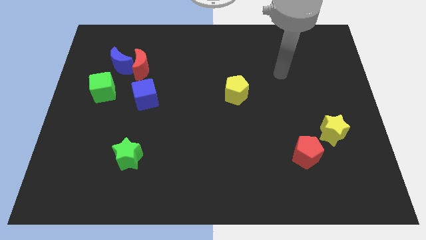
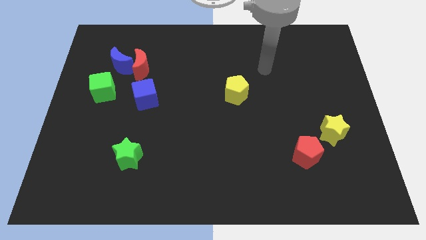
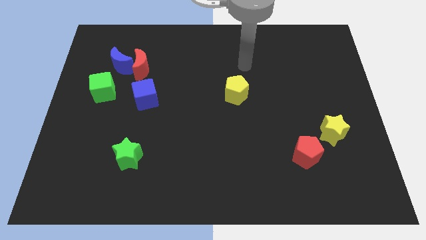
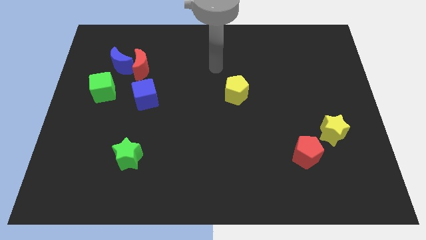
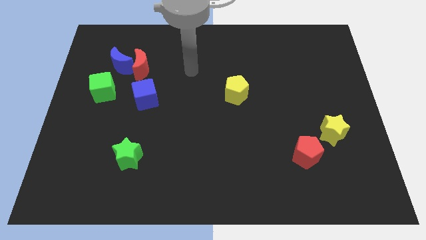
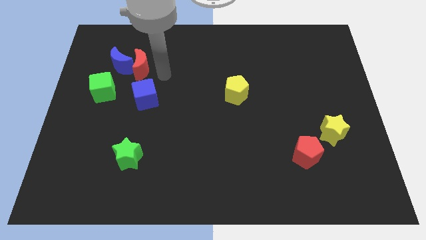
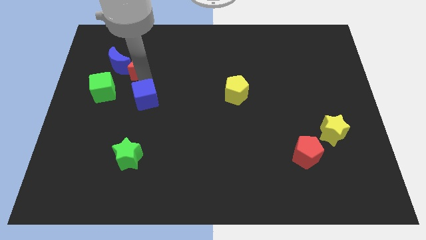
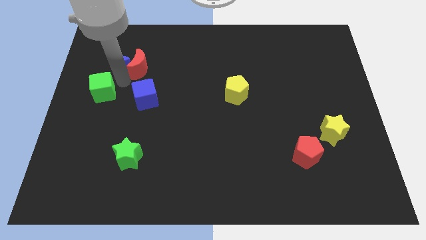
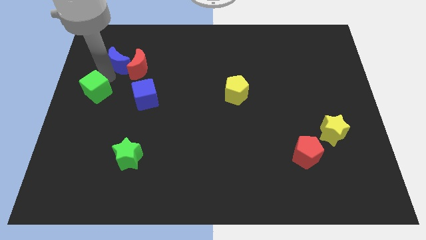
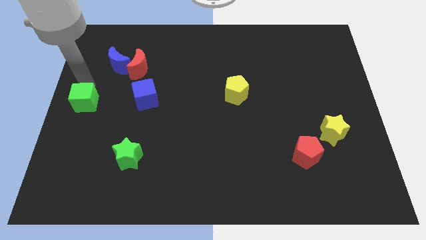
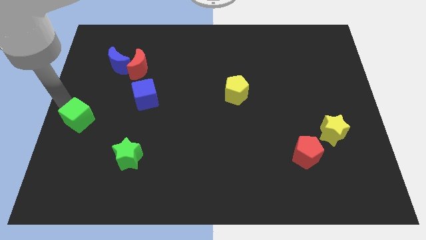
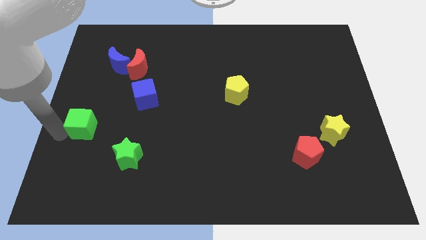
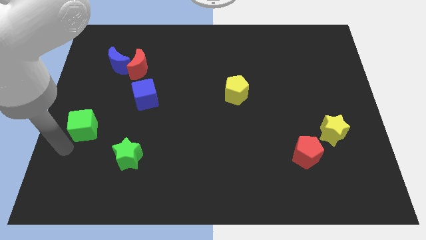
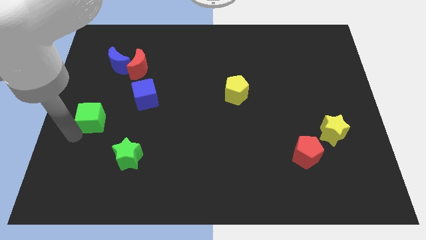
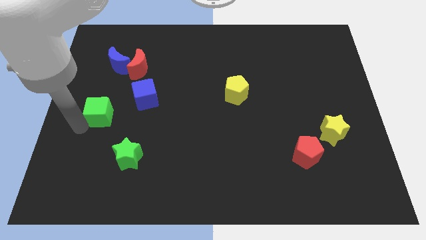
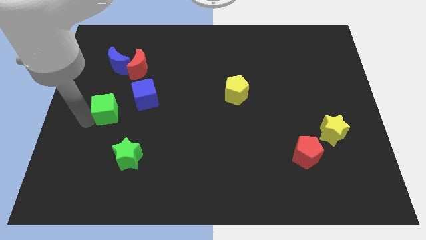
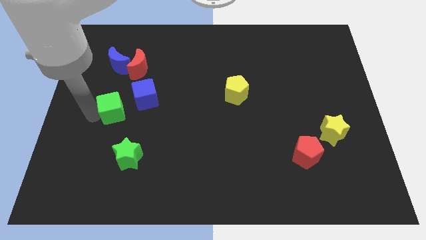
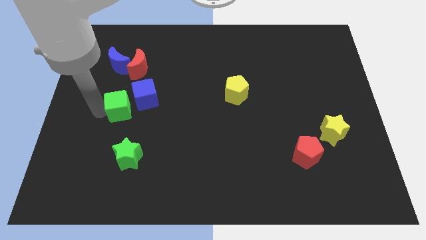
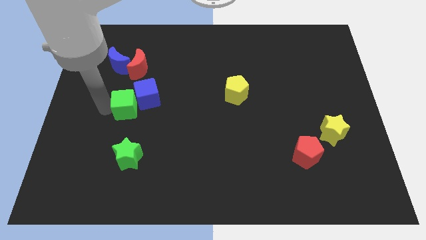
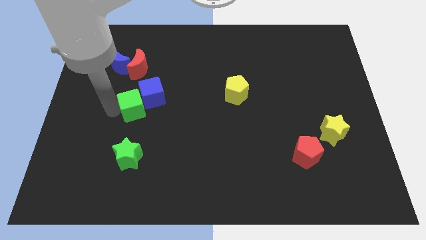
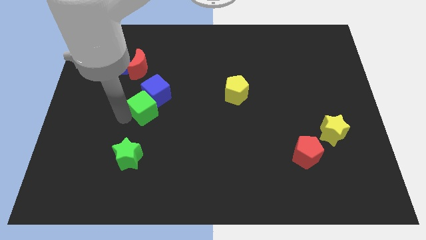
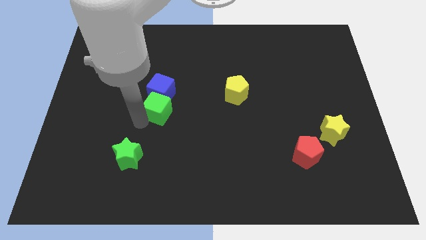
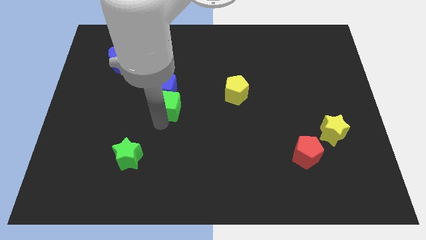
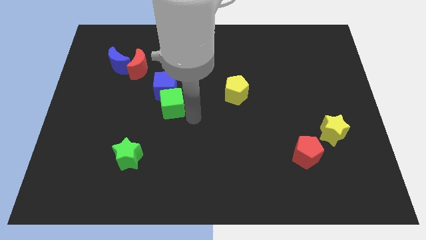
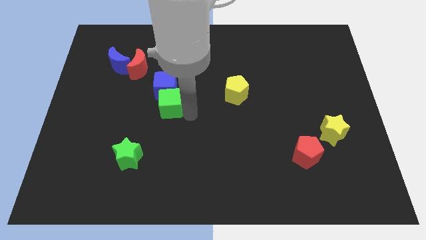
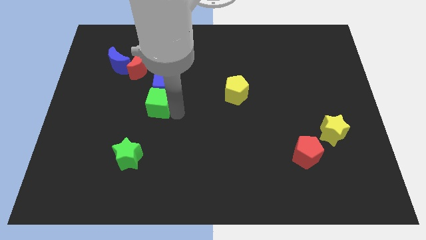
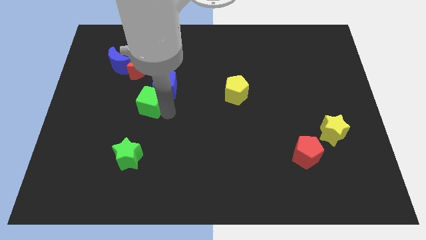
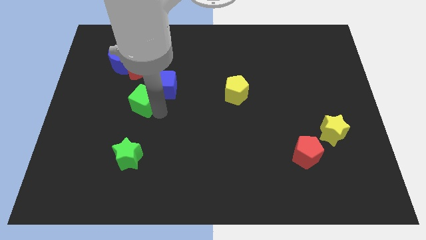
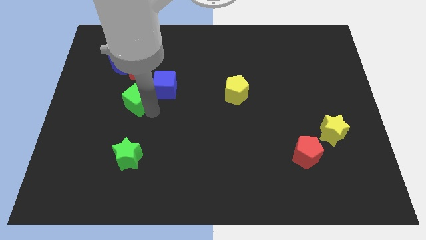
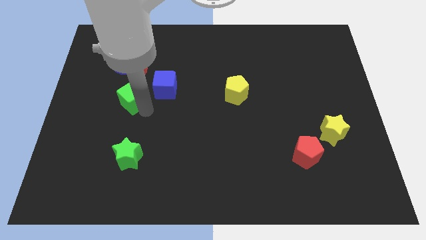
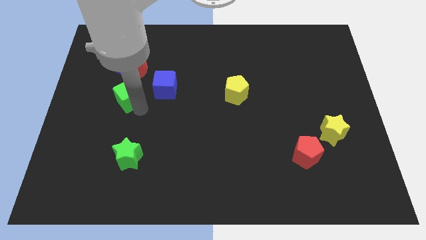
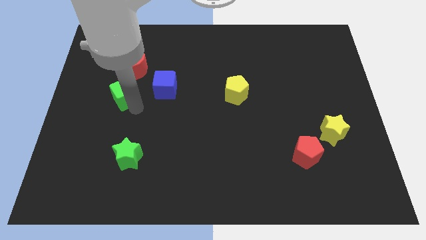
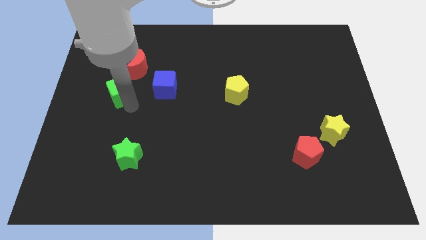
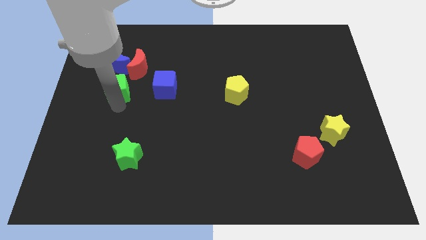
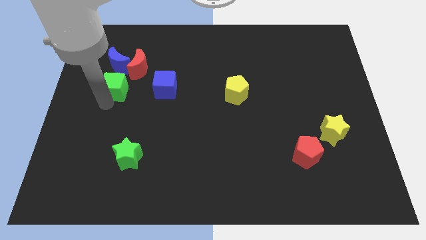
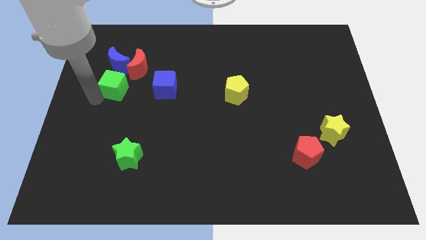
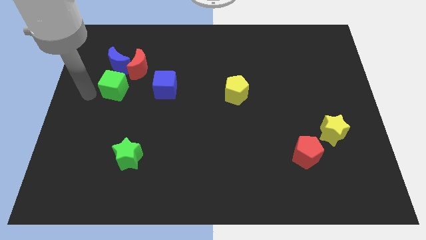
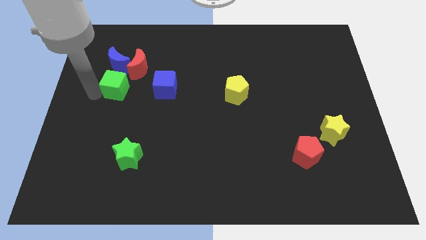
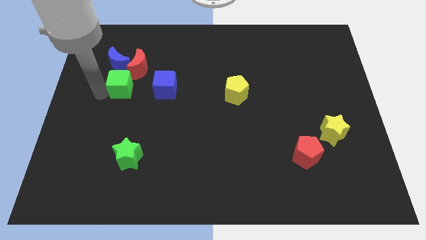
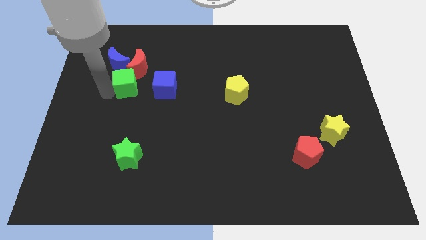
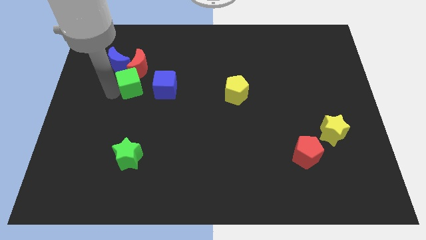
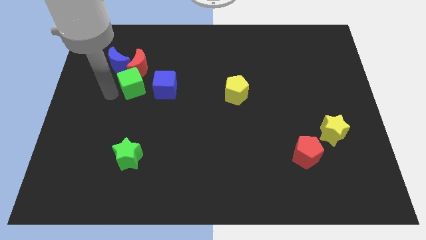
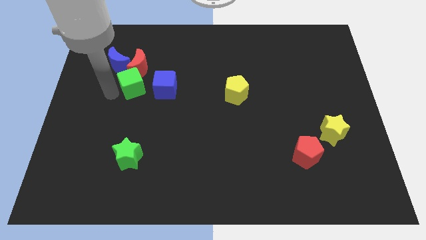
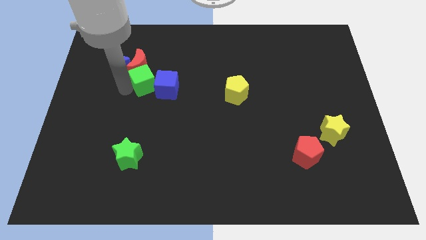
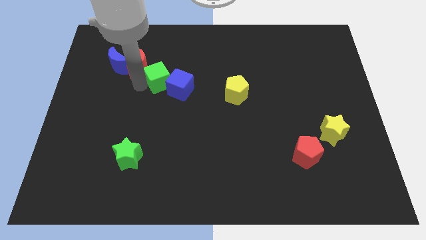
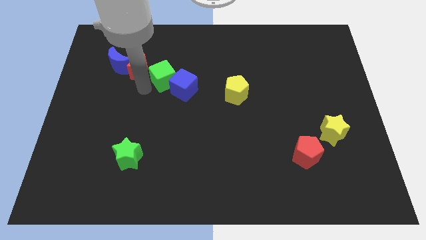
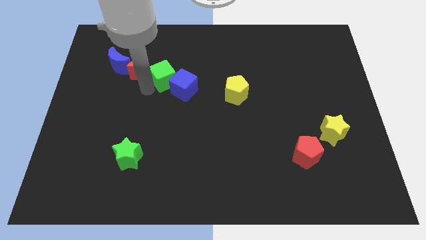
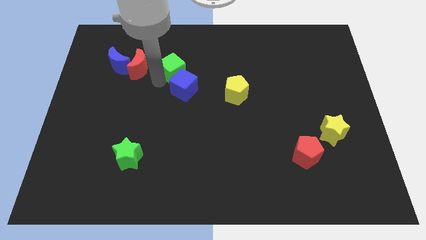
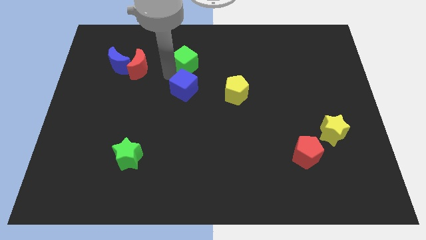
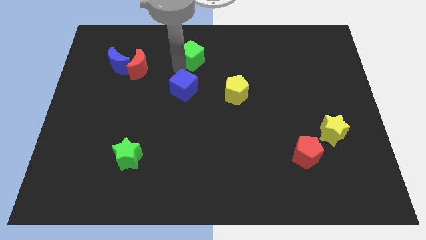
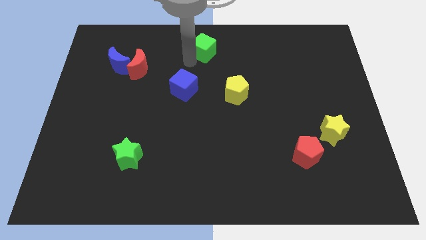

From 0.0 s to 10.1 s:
push the green cube to the top side

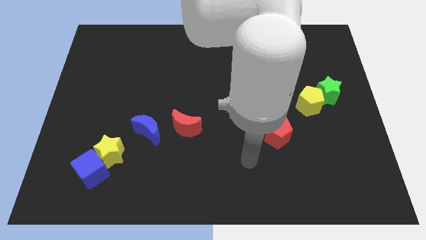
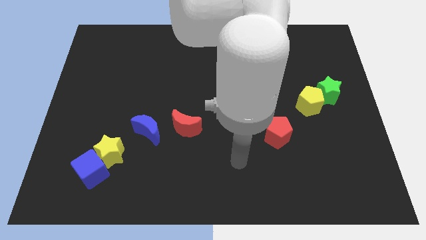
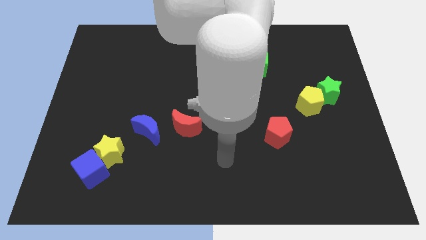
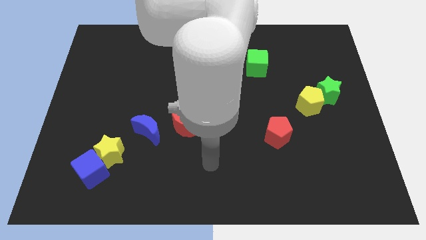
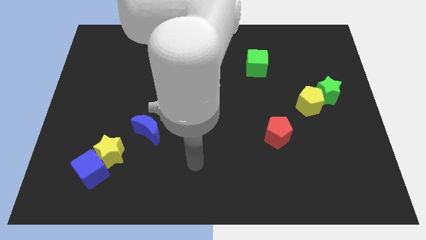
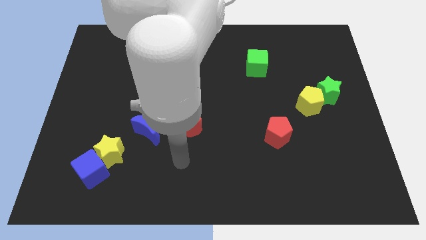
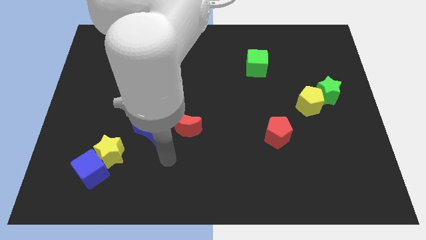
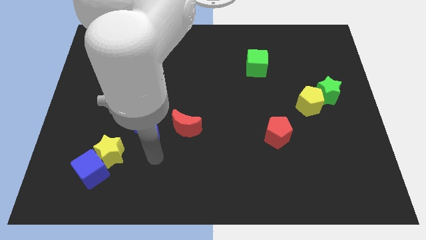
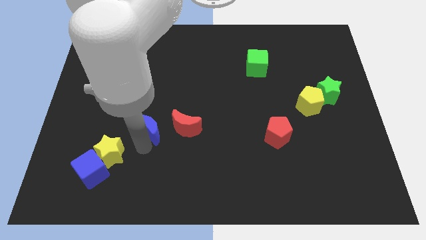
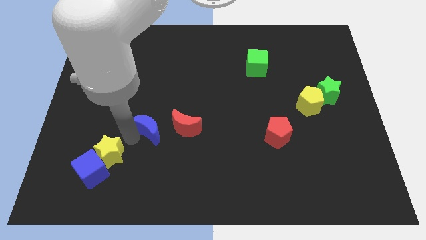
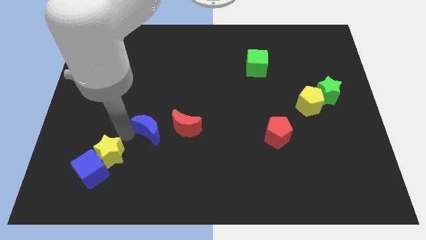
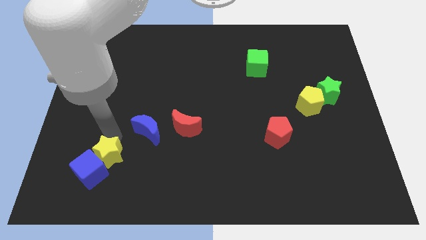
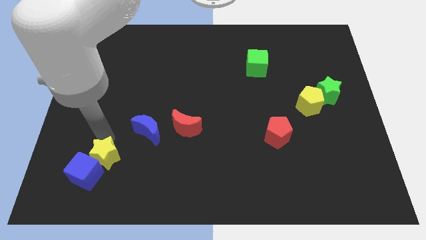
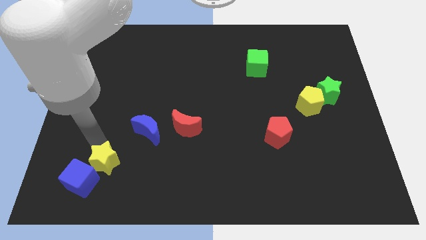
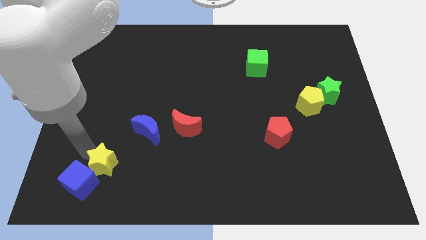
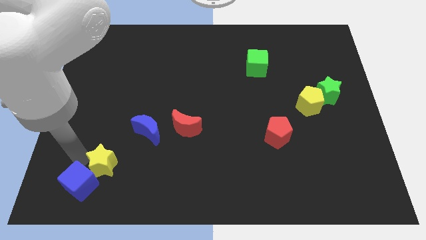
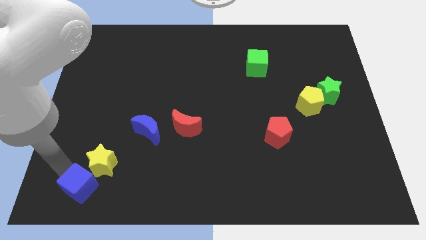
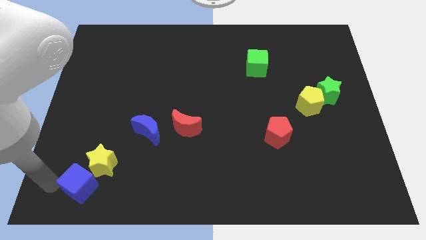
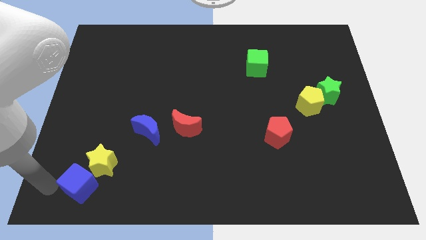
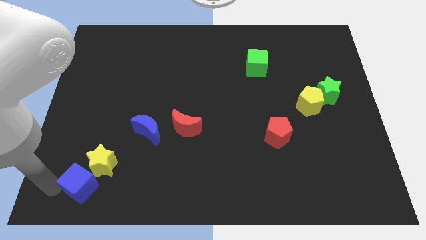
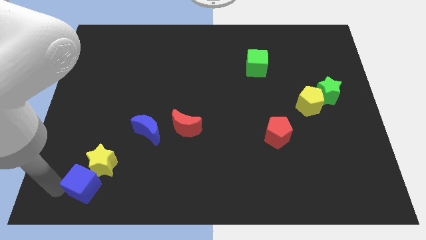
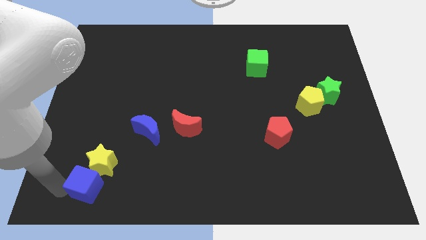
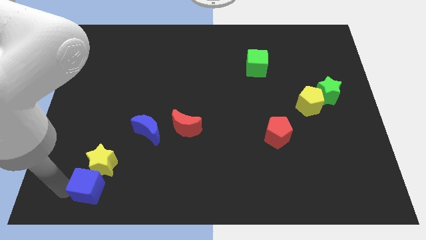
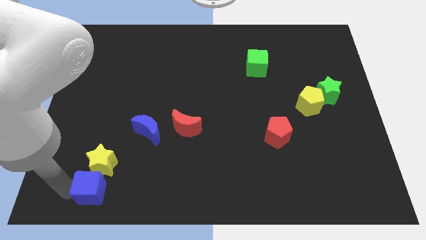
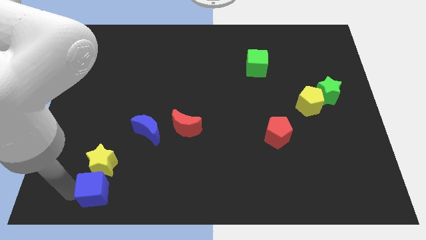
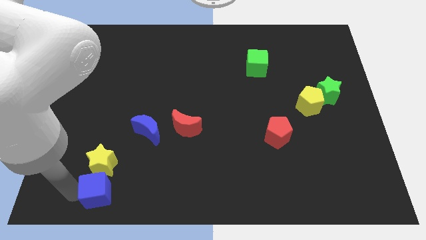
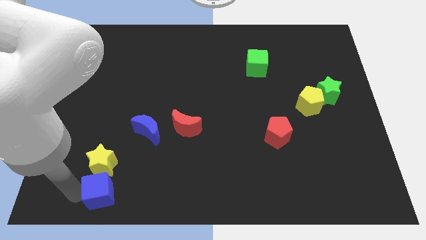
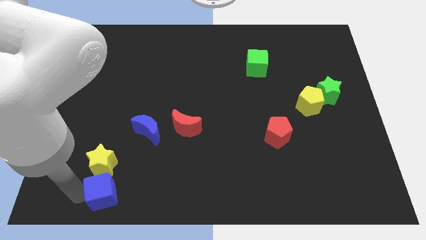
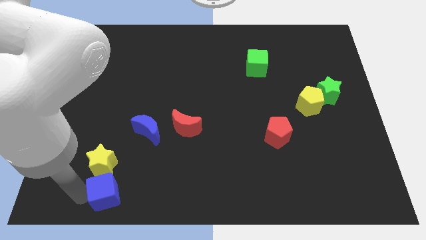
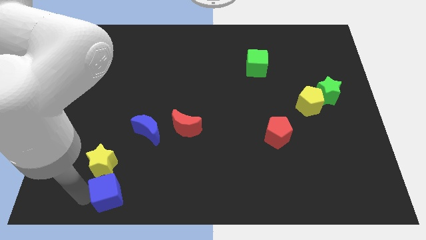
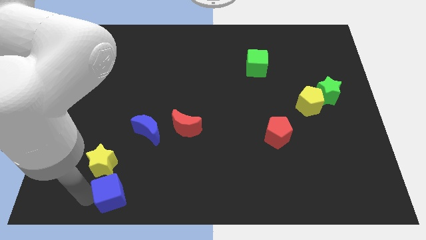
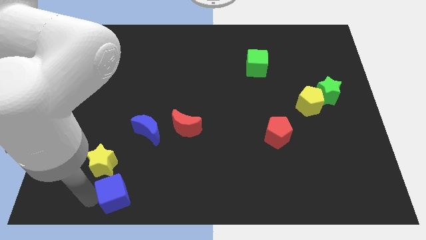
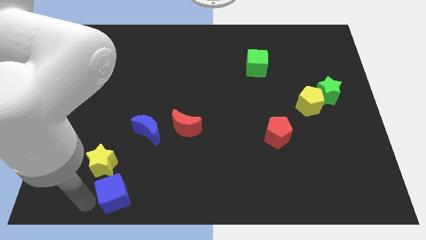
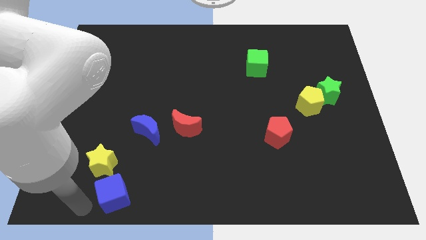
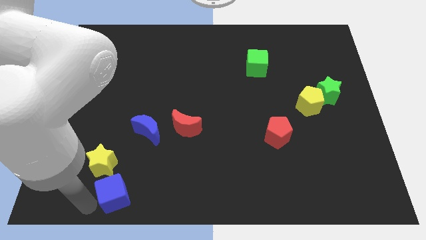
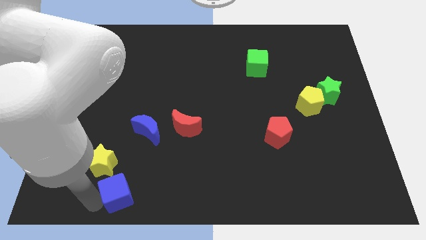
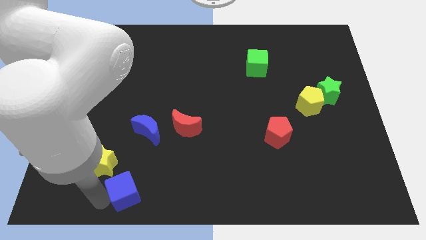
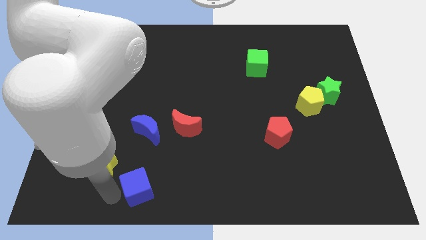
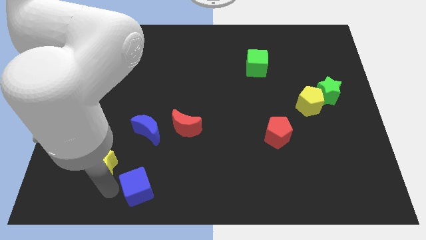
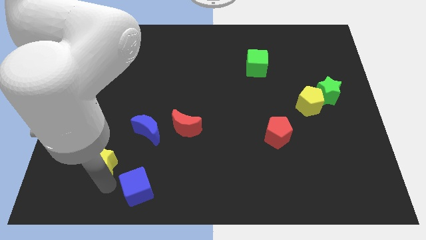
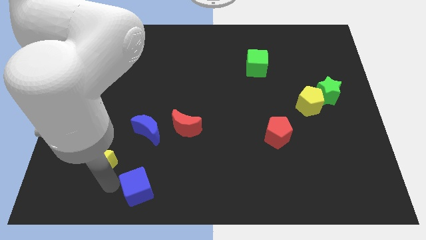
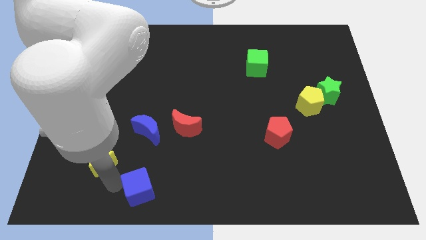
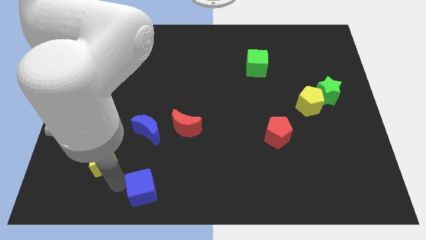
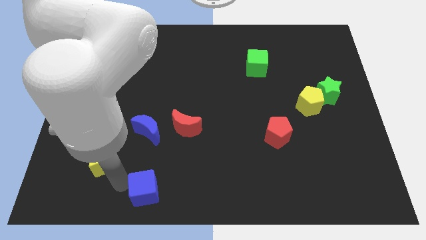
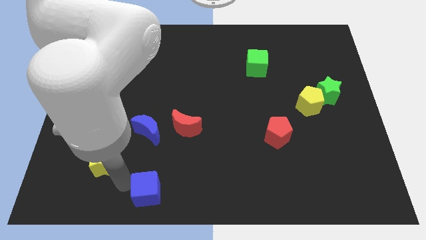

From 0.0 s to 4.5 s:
slide the blue cube to the bottom side
